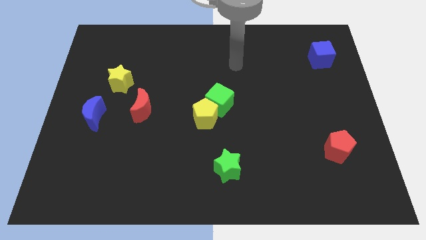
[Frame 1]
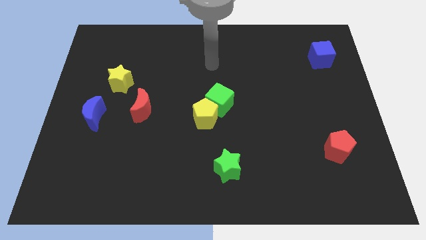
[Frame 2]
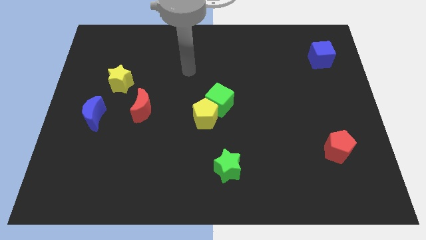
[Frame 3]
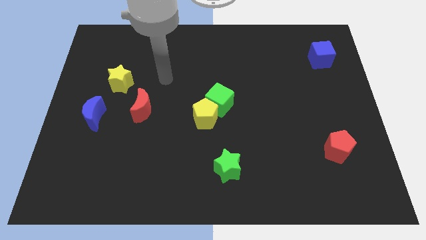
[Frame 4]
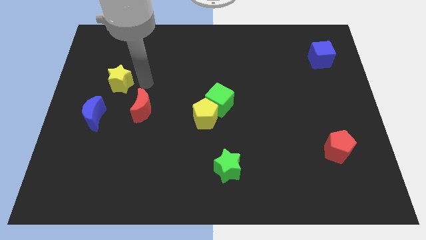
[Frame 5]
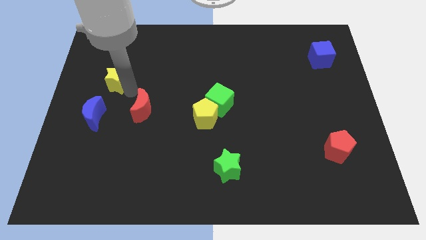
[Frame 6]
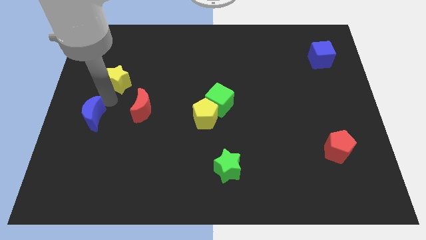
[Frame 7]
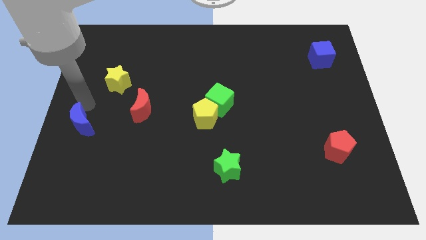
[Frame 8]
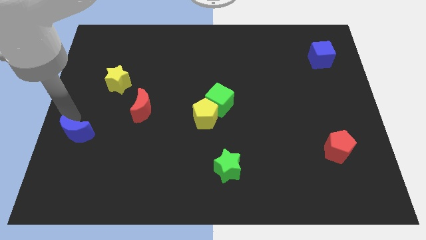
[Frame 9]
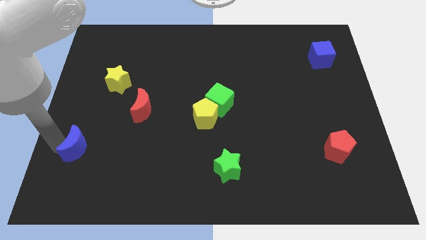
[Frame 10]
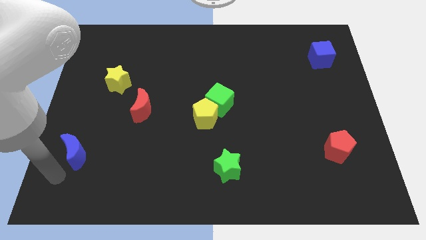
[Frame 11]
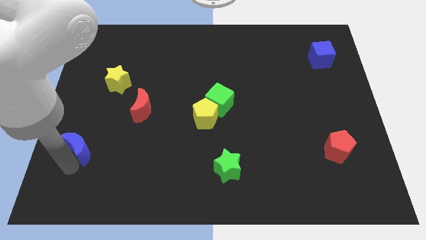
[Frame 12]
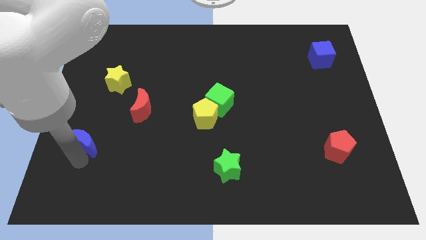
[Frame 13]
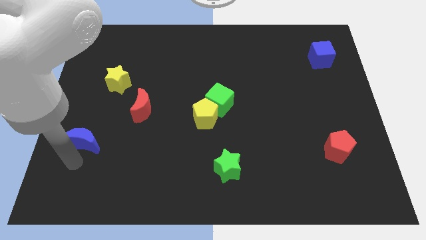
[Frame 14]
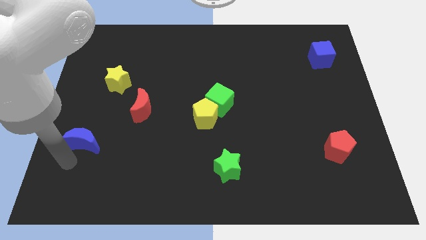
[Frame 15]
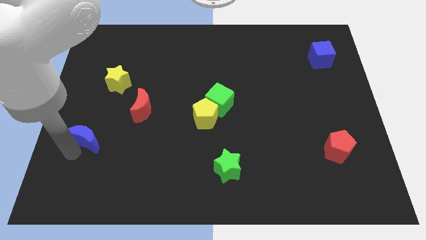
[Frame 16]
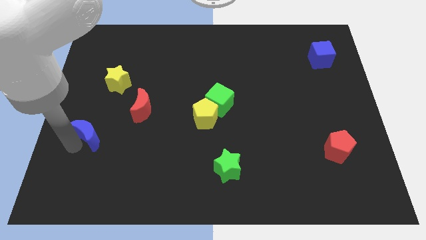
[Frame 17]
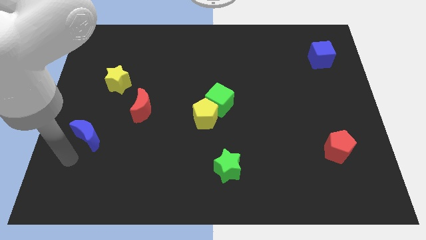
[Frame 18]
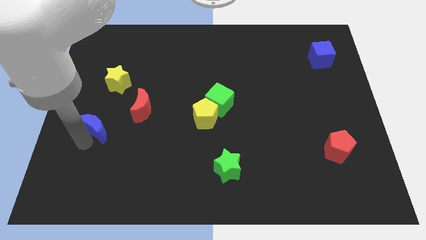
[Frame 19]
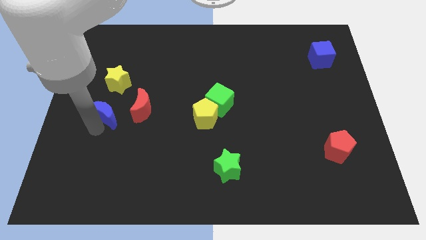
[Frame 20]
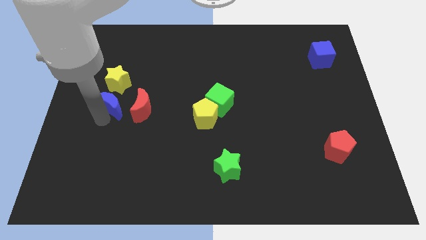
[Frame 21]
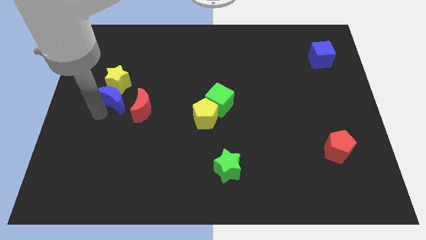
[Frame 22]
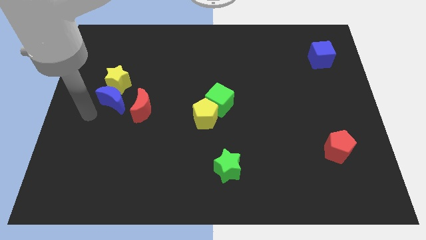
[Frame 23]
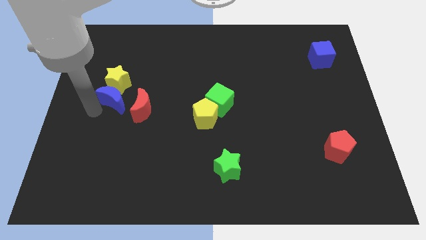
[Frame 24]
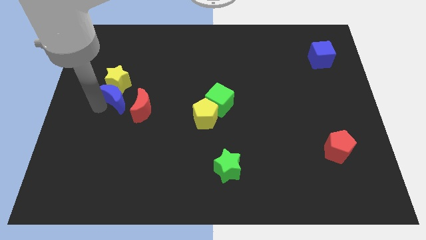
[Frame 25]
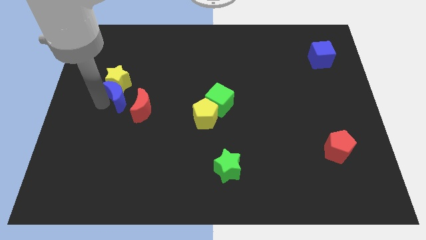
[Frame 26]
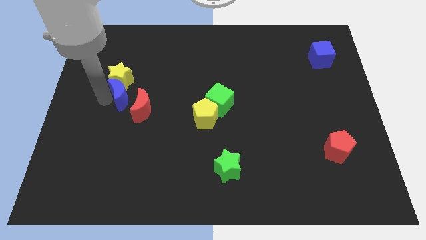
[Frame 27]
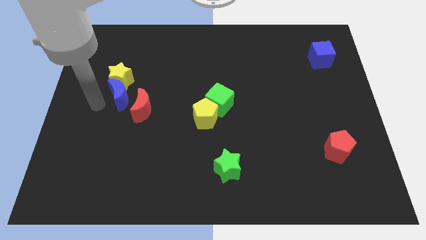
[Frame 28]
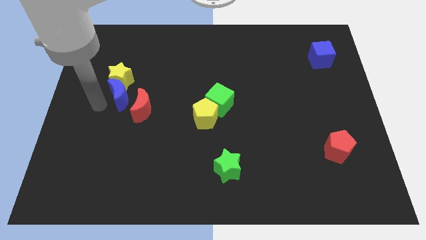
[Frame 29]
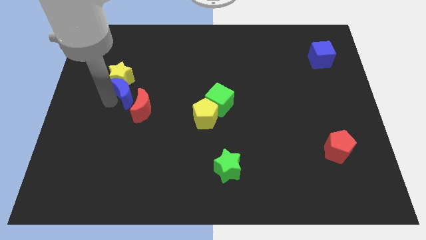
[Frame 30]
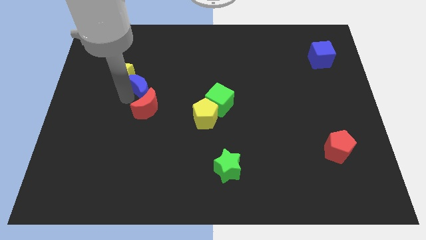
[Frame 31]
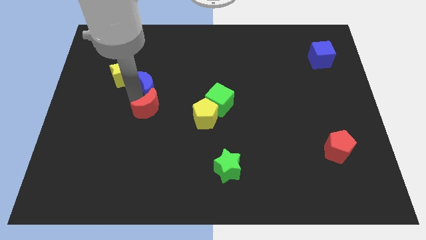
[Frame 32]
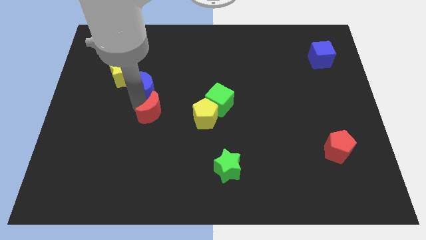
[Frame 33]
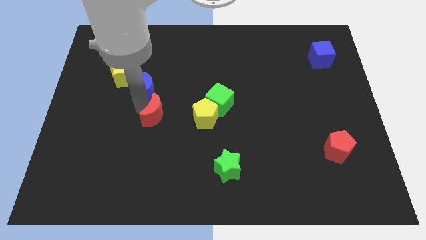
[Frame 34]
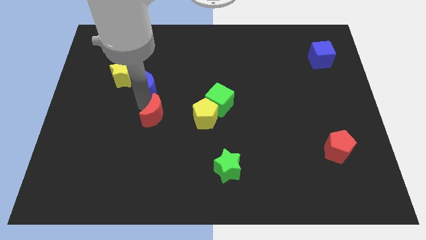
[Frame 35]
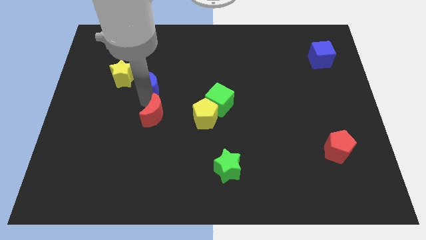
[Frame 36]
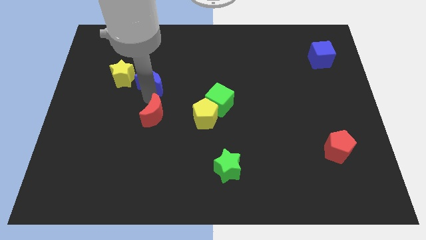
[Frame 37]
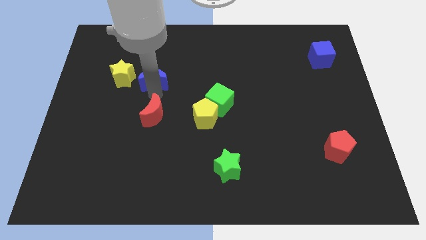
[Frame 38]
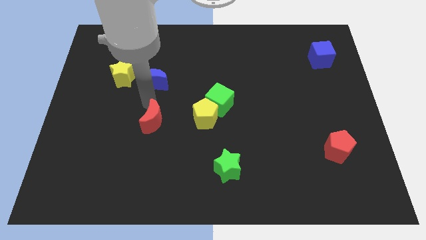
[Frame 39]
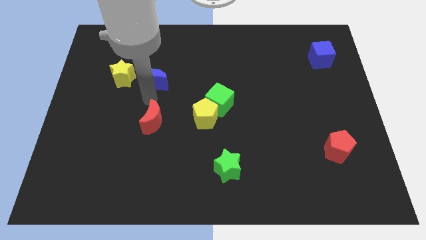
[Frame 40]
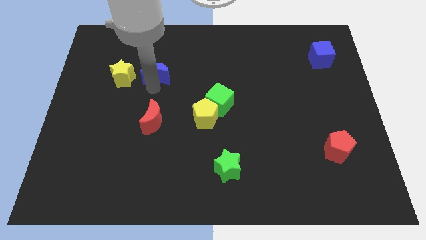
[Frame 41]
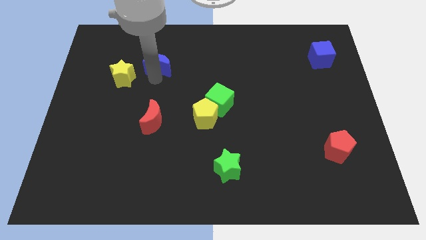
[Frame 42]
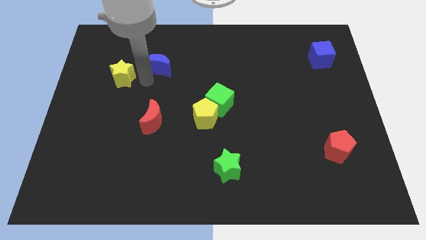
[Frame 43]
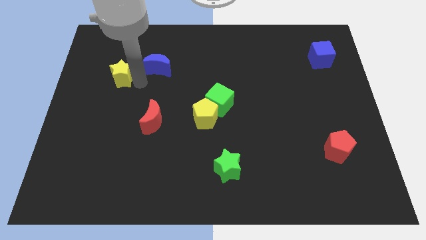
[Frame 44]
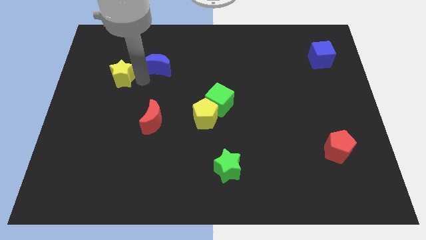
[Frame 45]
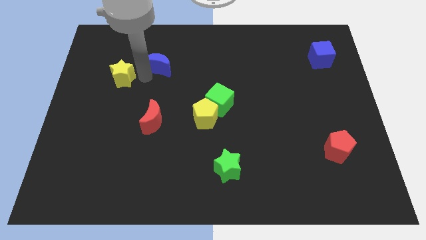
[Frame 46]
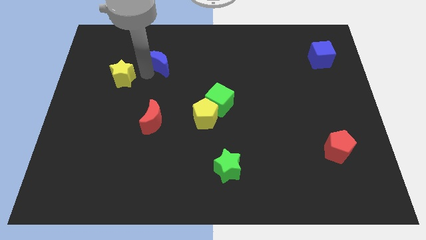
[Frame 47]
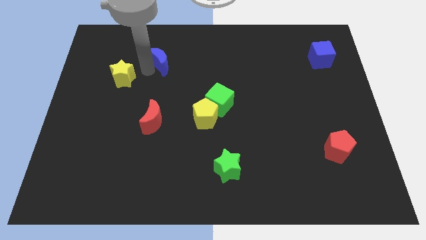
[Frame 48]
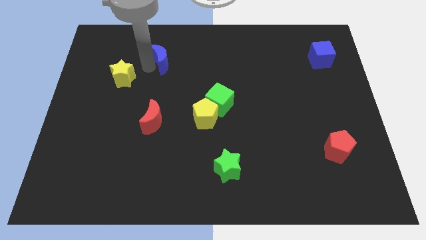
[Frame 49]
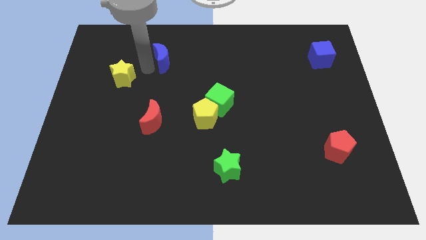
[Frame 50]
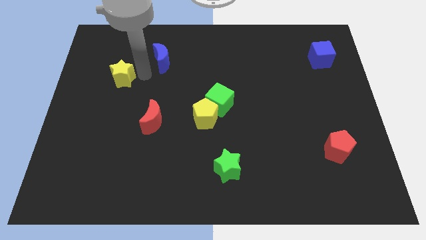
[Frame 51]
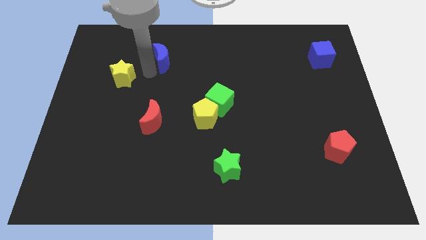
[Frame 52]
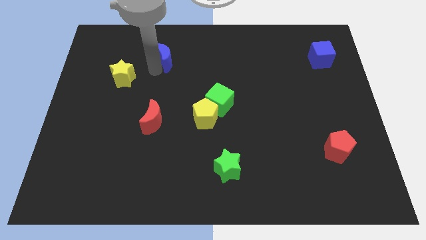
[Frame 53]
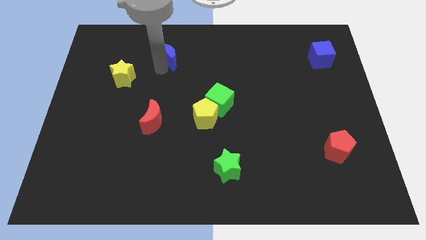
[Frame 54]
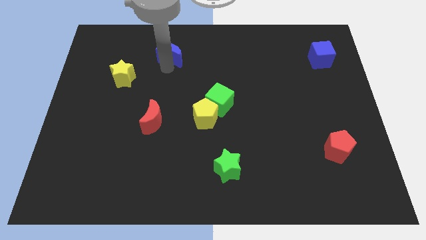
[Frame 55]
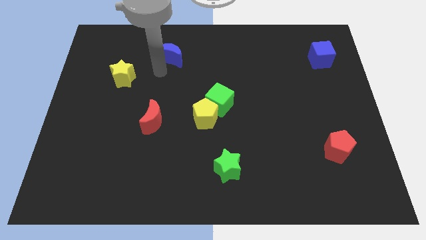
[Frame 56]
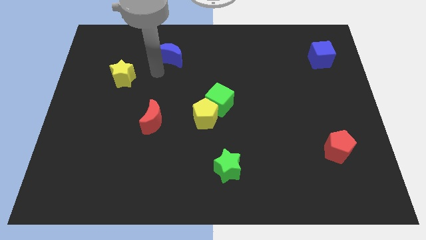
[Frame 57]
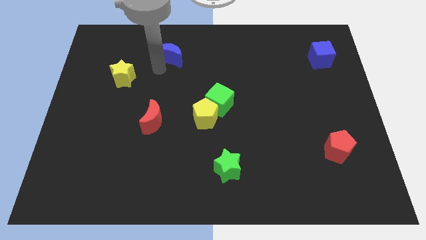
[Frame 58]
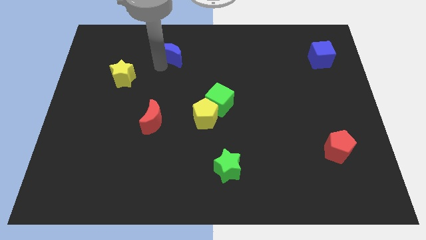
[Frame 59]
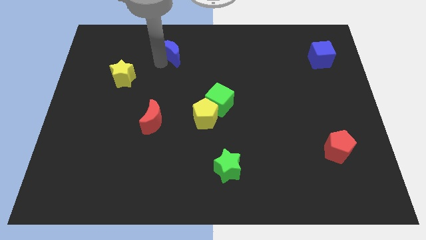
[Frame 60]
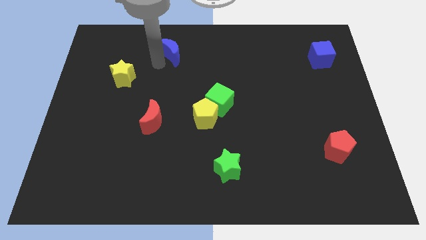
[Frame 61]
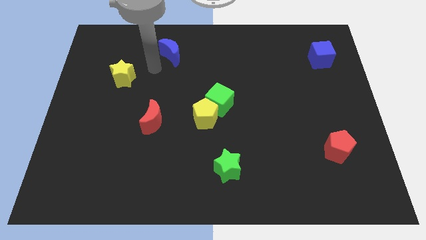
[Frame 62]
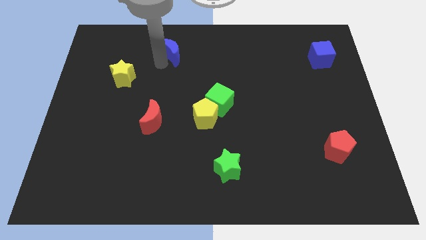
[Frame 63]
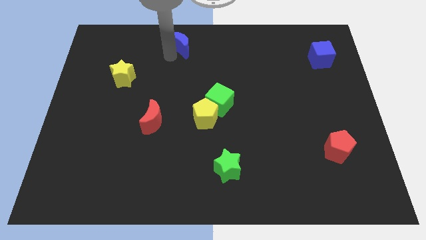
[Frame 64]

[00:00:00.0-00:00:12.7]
slide the blue moon to the top
